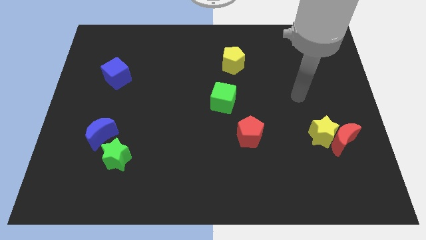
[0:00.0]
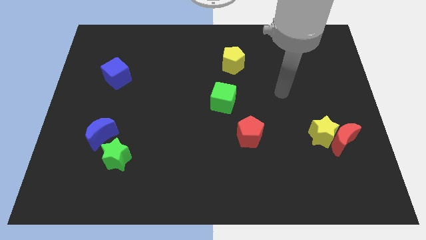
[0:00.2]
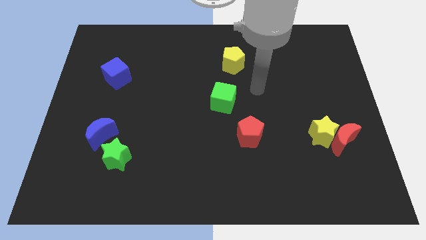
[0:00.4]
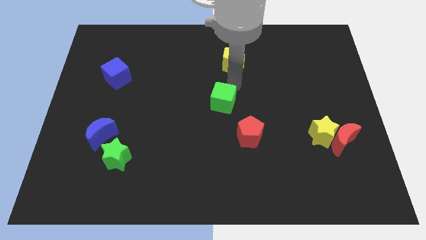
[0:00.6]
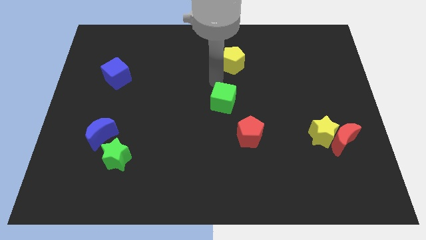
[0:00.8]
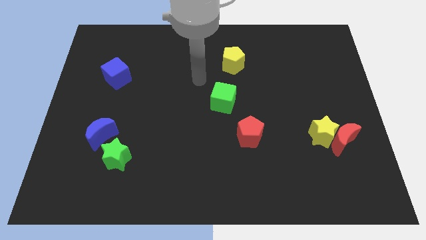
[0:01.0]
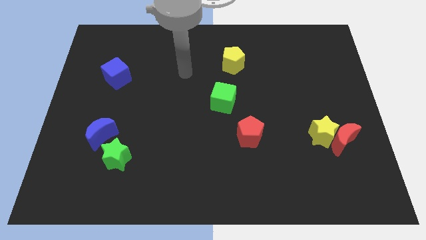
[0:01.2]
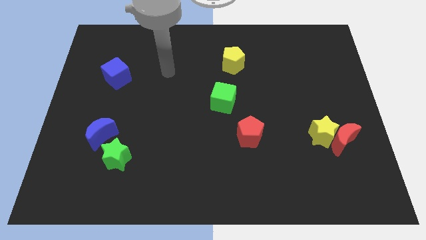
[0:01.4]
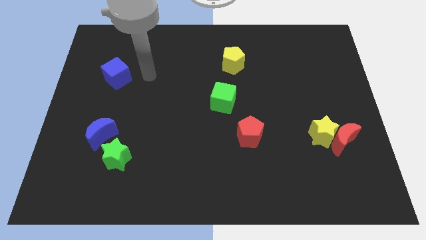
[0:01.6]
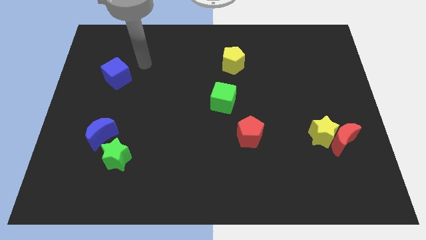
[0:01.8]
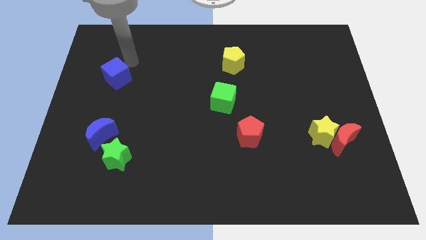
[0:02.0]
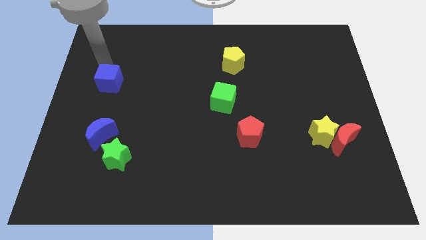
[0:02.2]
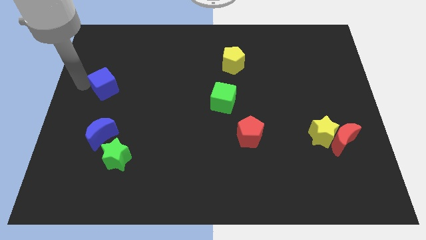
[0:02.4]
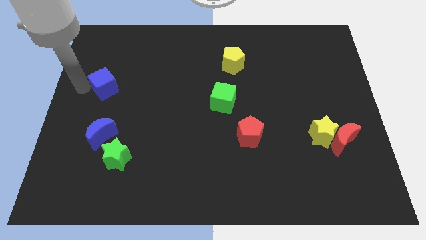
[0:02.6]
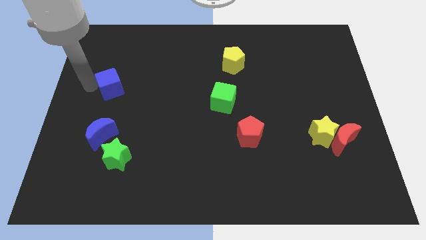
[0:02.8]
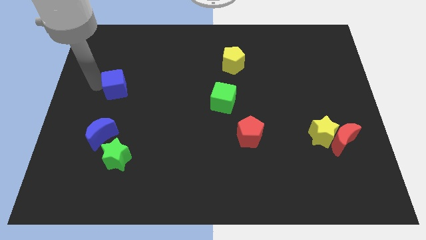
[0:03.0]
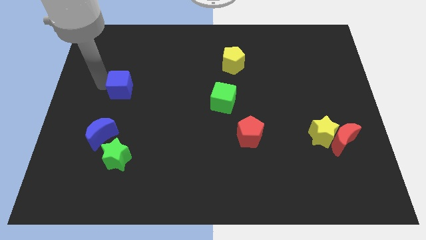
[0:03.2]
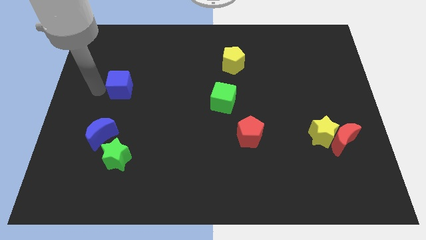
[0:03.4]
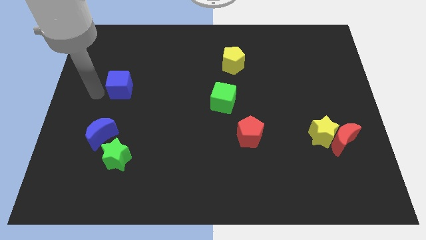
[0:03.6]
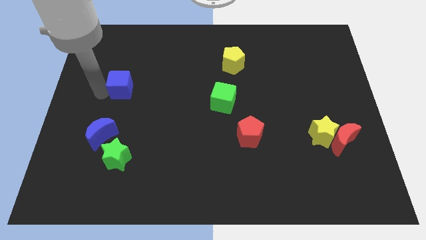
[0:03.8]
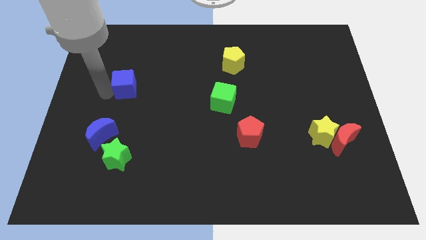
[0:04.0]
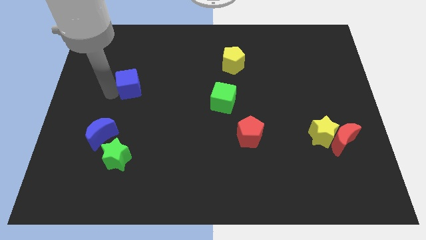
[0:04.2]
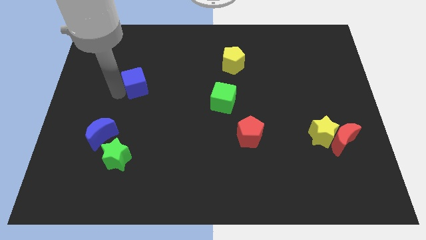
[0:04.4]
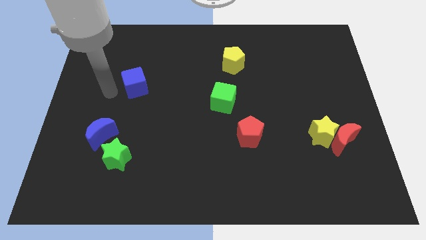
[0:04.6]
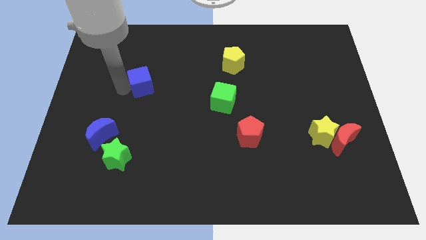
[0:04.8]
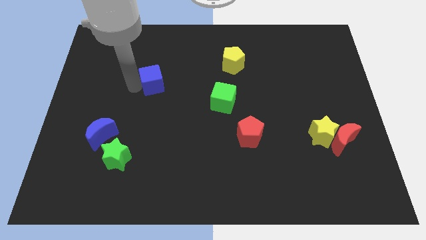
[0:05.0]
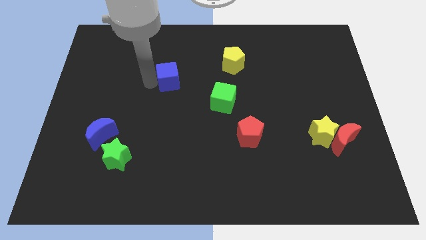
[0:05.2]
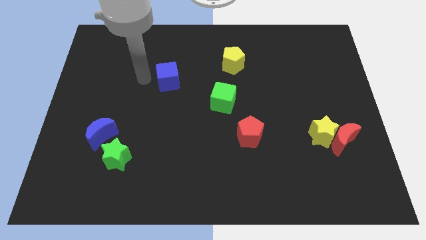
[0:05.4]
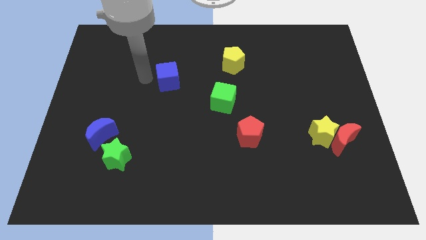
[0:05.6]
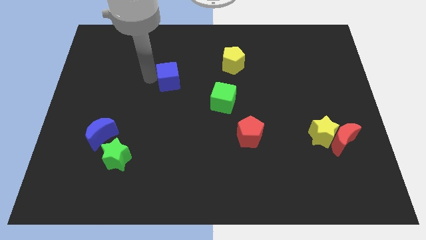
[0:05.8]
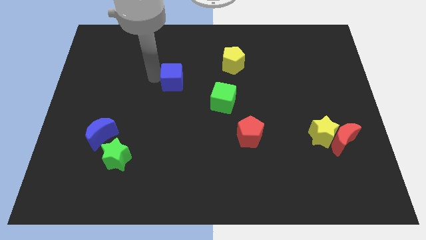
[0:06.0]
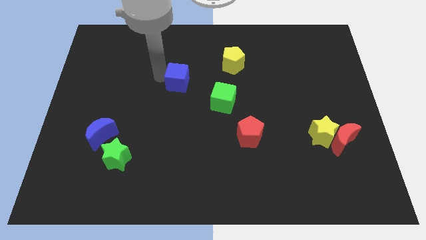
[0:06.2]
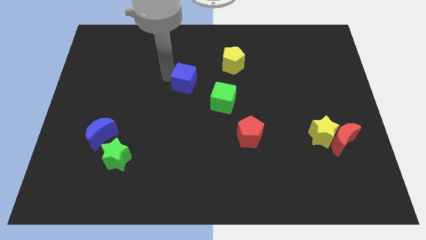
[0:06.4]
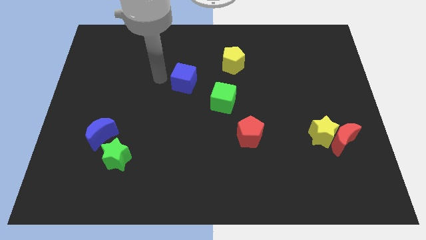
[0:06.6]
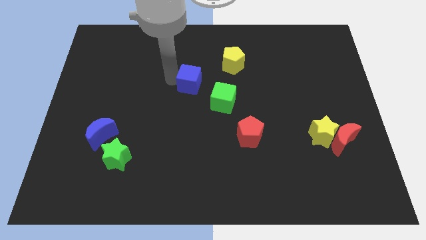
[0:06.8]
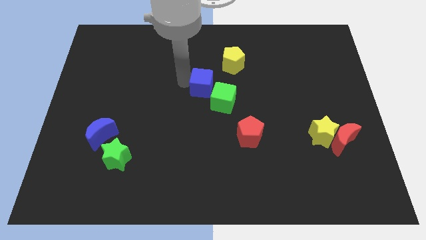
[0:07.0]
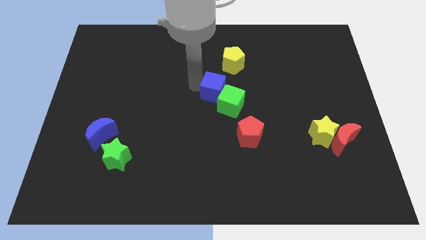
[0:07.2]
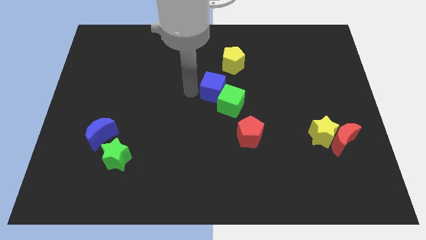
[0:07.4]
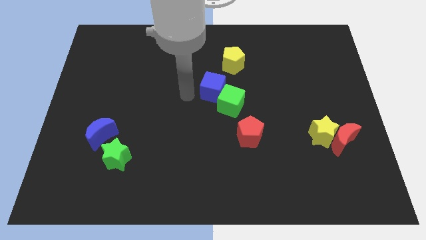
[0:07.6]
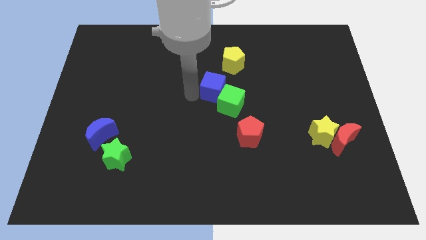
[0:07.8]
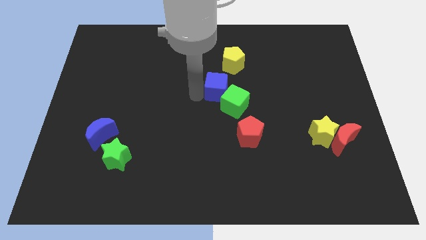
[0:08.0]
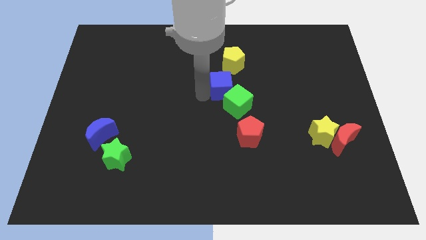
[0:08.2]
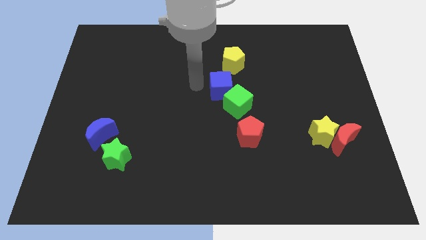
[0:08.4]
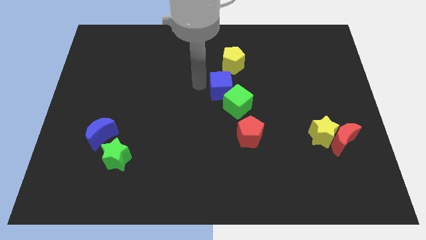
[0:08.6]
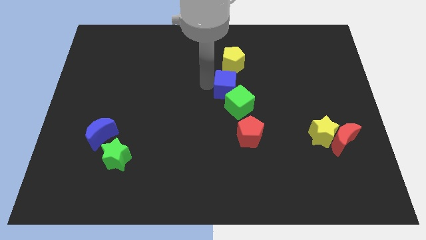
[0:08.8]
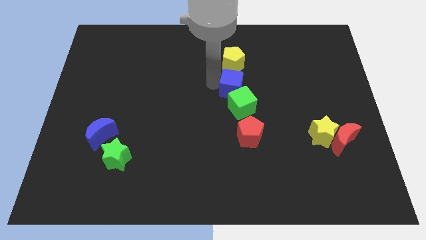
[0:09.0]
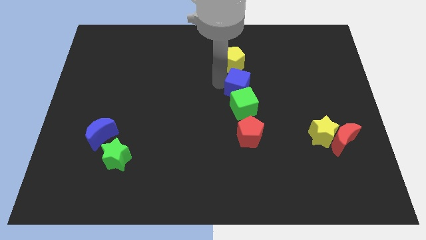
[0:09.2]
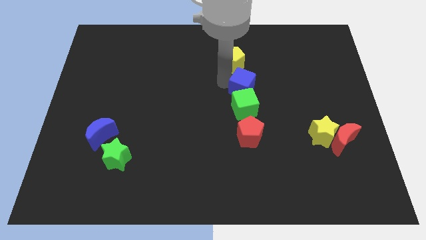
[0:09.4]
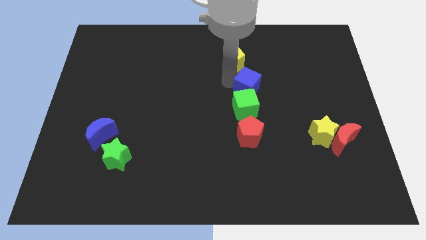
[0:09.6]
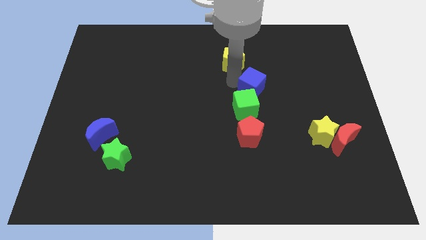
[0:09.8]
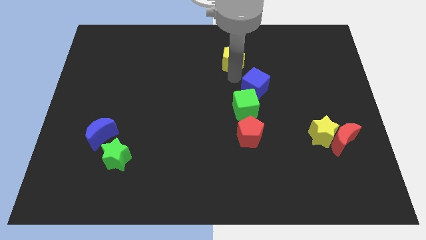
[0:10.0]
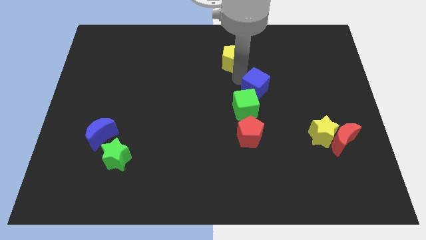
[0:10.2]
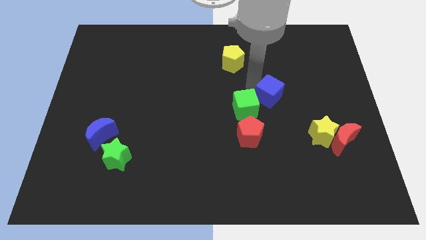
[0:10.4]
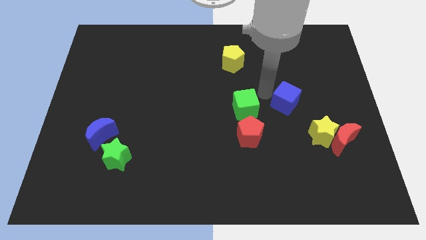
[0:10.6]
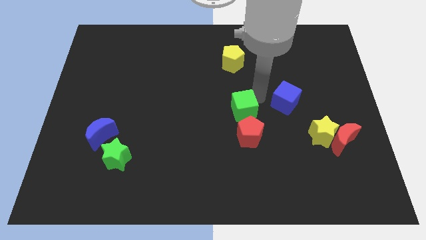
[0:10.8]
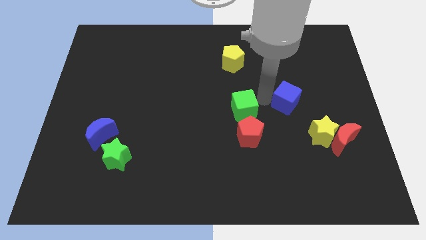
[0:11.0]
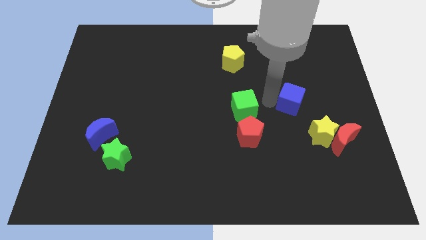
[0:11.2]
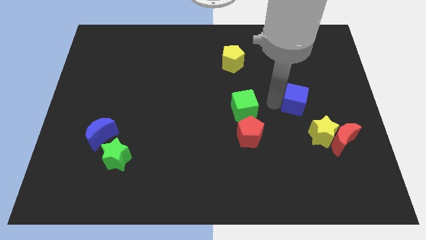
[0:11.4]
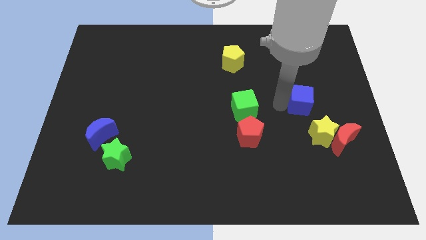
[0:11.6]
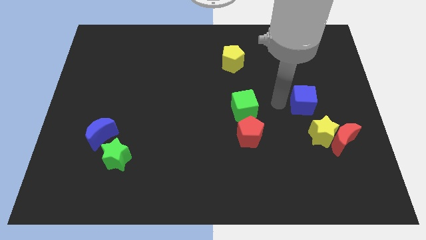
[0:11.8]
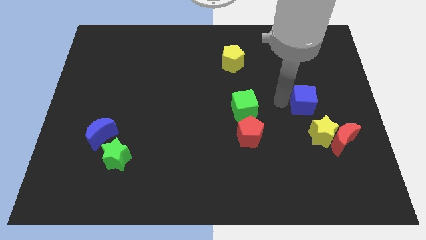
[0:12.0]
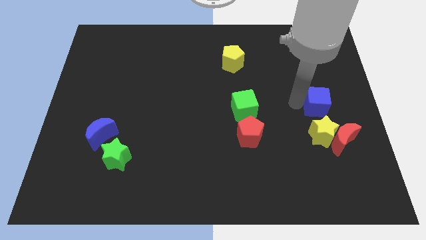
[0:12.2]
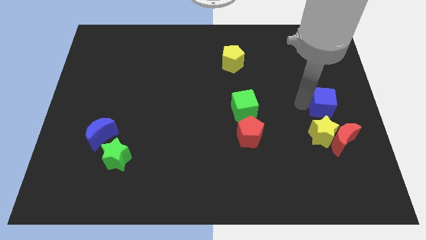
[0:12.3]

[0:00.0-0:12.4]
put the blue cube to the center right

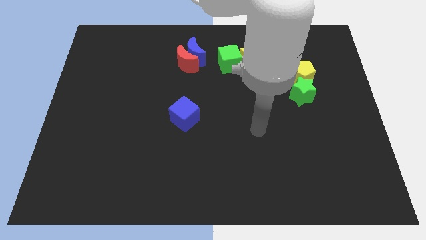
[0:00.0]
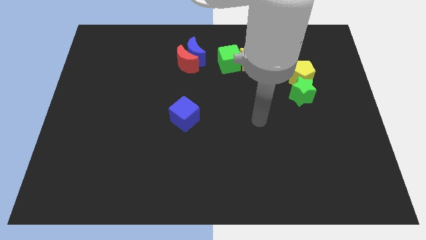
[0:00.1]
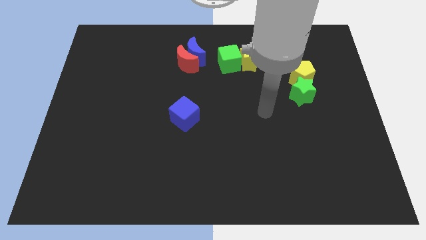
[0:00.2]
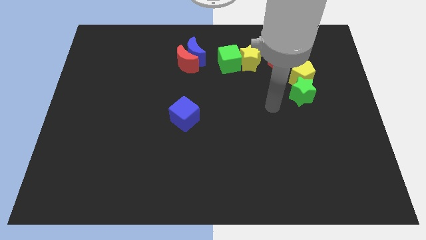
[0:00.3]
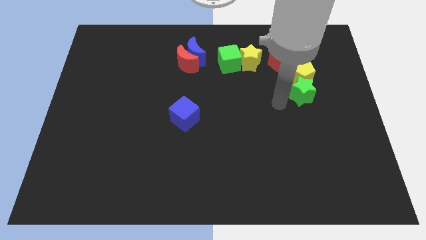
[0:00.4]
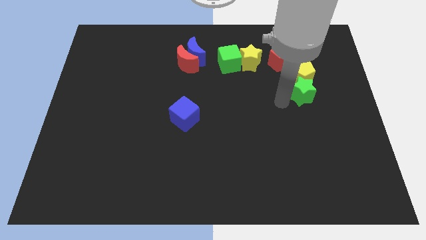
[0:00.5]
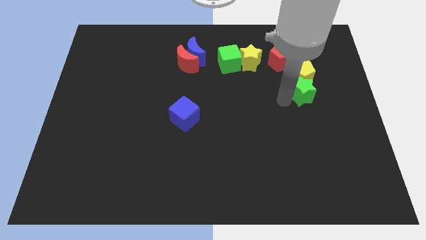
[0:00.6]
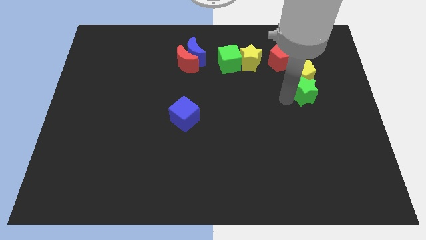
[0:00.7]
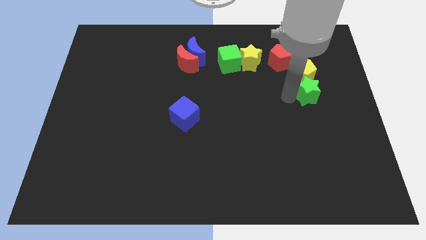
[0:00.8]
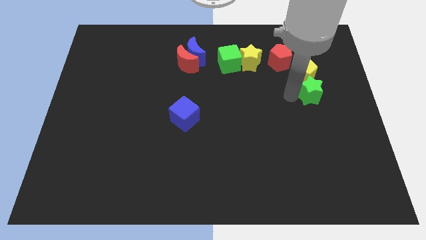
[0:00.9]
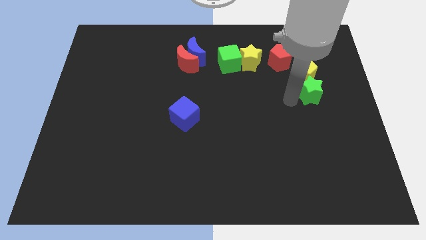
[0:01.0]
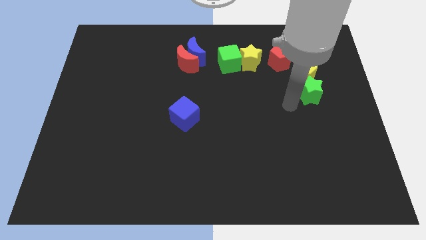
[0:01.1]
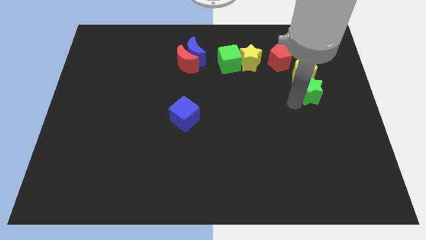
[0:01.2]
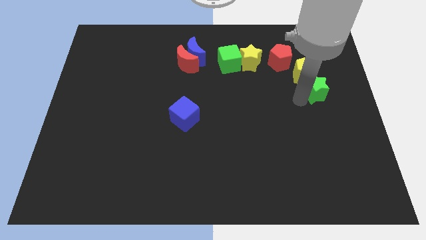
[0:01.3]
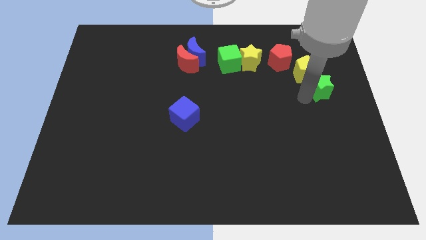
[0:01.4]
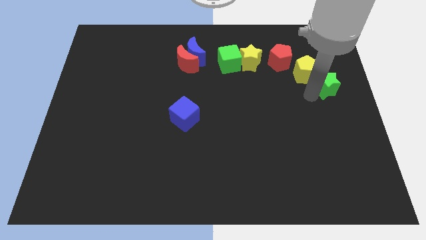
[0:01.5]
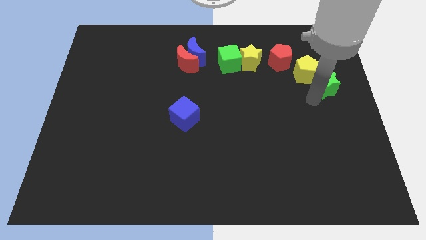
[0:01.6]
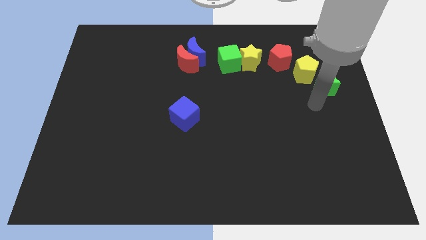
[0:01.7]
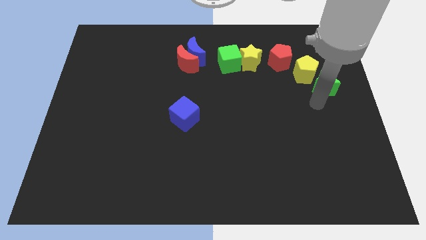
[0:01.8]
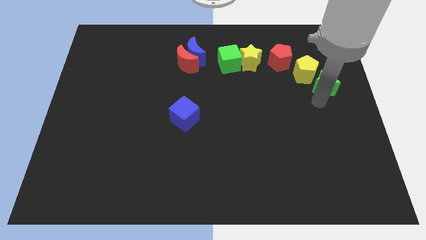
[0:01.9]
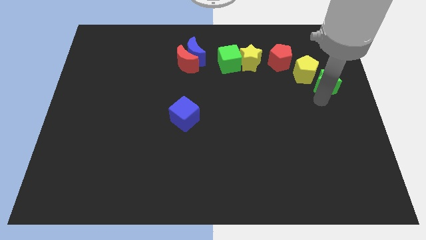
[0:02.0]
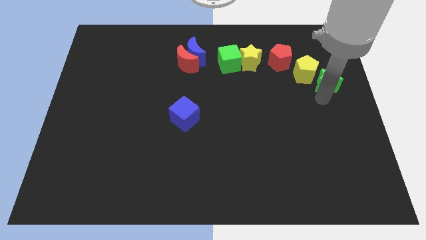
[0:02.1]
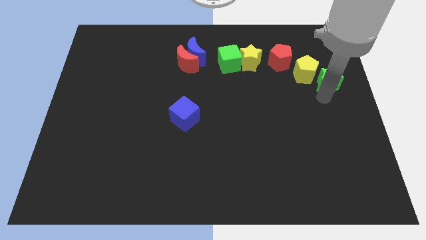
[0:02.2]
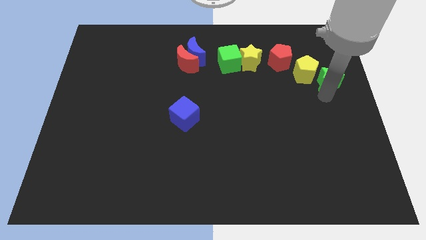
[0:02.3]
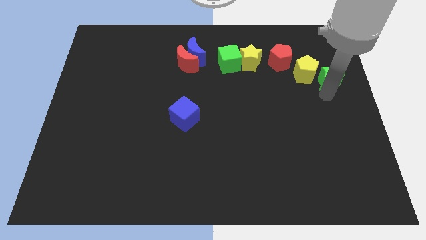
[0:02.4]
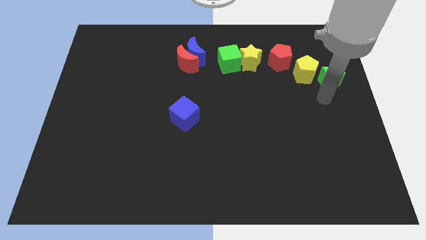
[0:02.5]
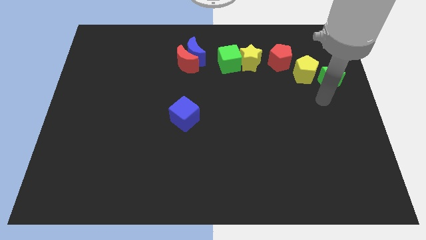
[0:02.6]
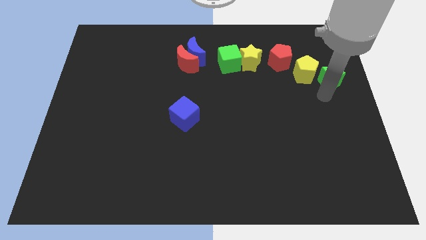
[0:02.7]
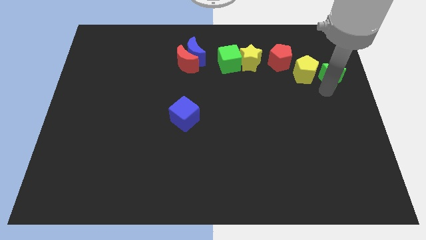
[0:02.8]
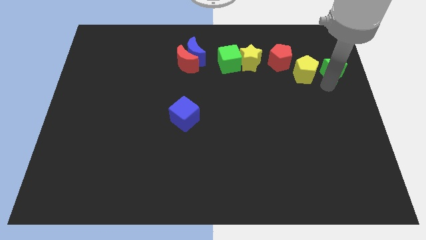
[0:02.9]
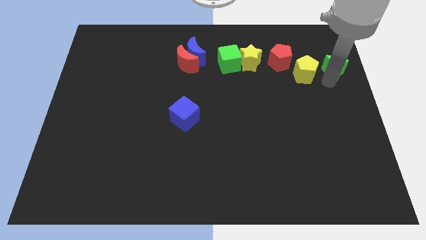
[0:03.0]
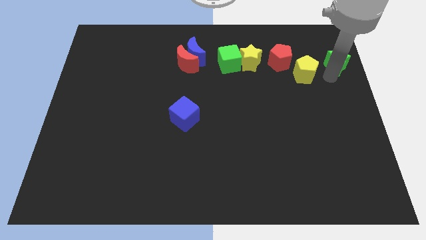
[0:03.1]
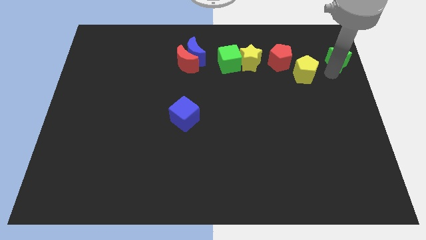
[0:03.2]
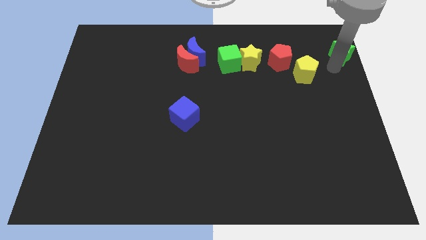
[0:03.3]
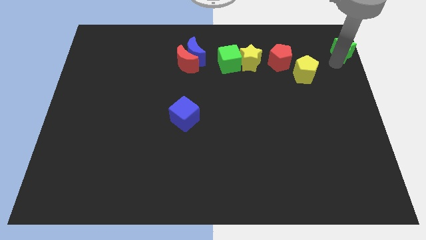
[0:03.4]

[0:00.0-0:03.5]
push the green star to the upper right corner
